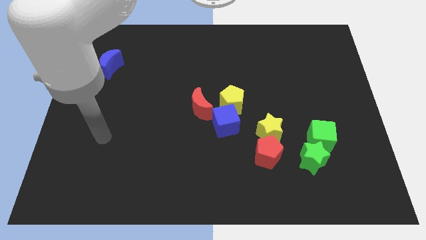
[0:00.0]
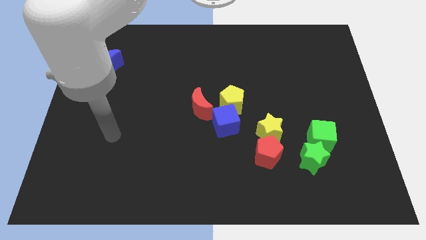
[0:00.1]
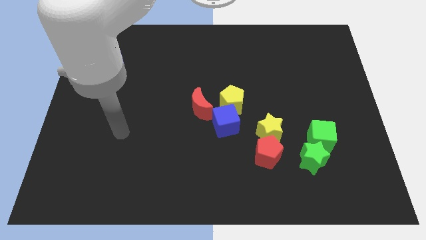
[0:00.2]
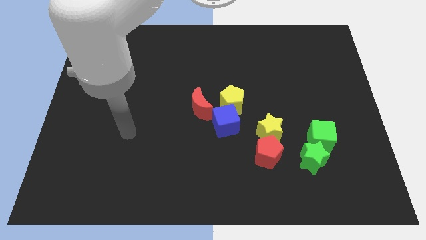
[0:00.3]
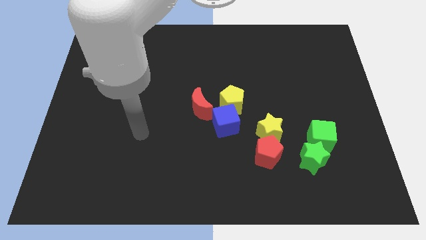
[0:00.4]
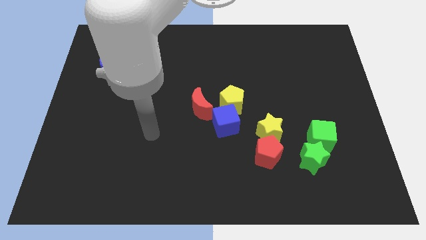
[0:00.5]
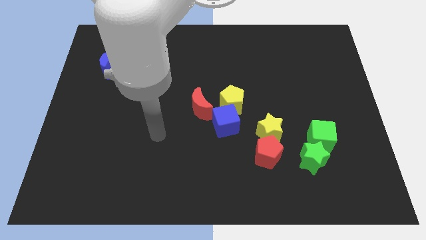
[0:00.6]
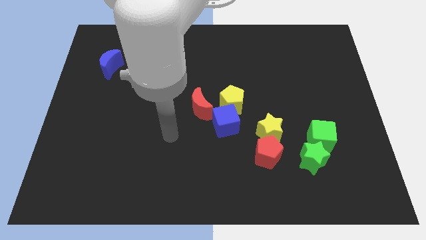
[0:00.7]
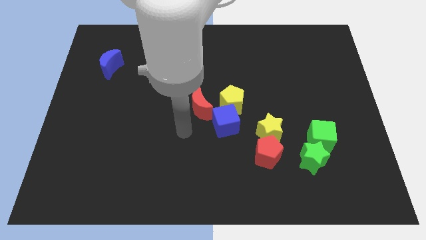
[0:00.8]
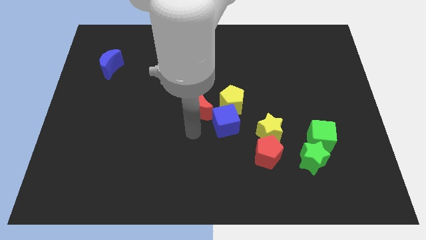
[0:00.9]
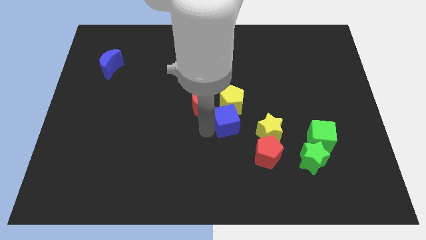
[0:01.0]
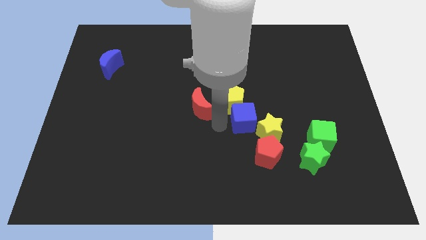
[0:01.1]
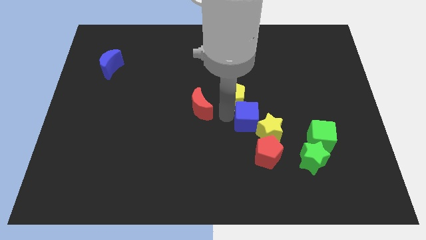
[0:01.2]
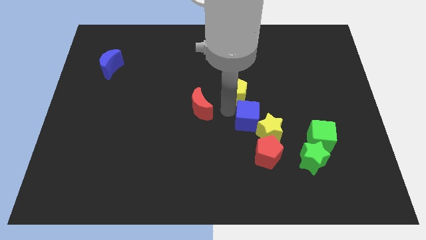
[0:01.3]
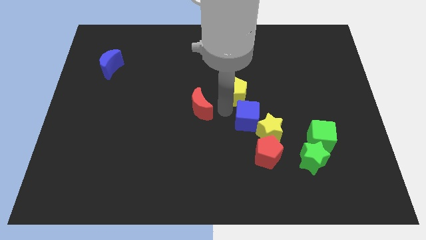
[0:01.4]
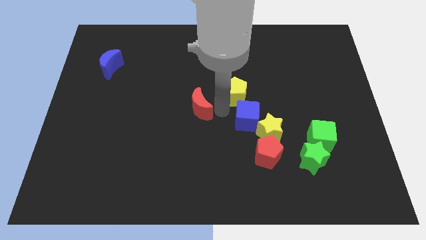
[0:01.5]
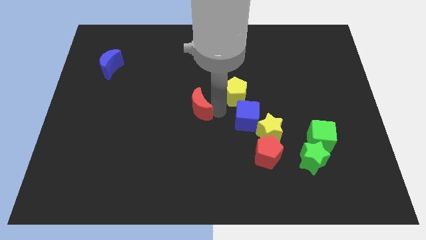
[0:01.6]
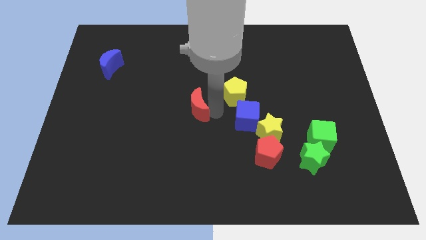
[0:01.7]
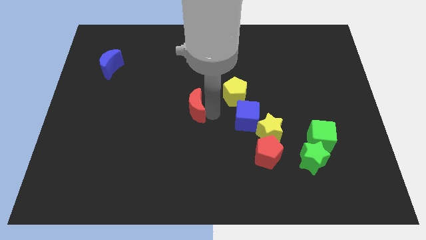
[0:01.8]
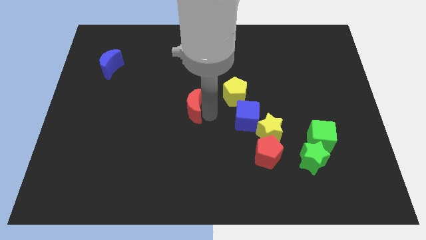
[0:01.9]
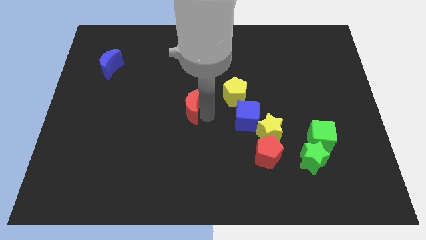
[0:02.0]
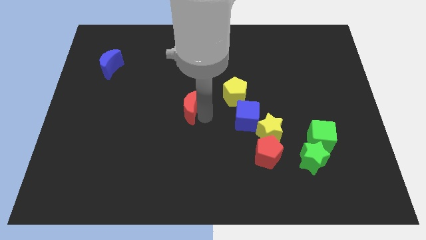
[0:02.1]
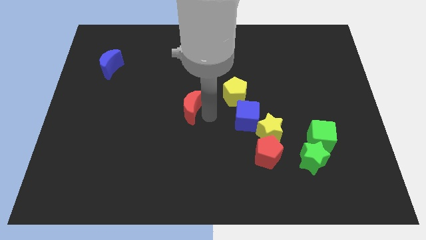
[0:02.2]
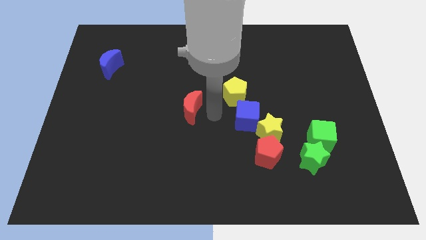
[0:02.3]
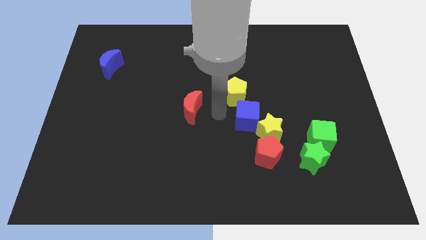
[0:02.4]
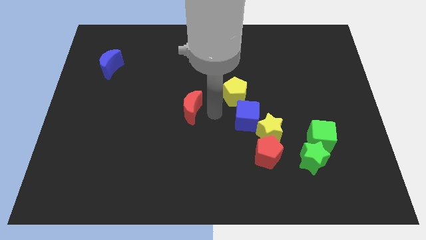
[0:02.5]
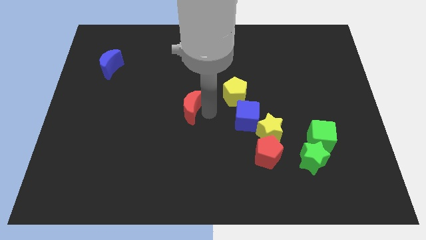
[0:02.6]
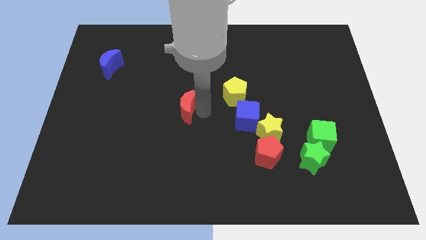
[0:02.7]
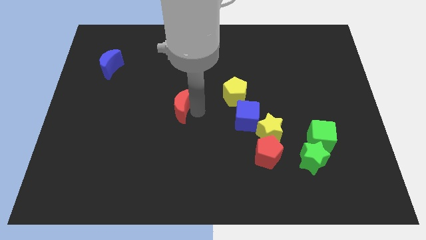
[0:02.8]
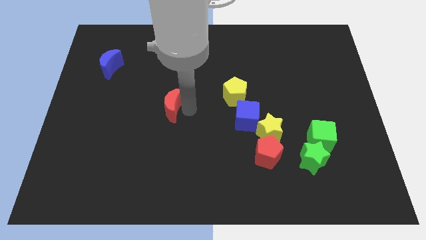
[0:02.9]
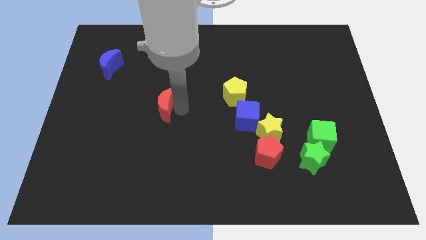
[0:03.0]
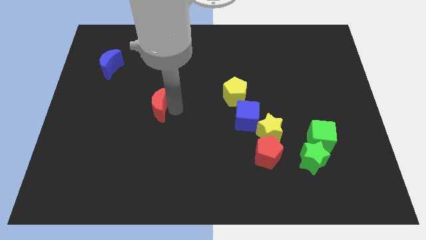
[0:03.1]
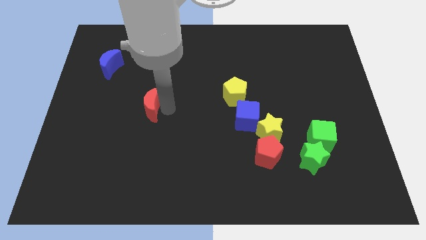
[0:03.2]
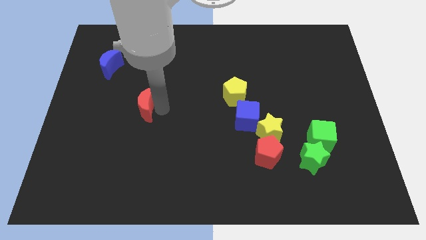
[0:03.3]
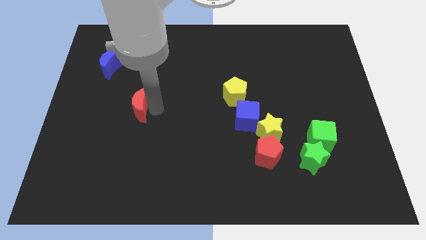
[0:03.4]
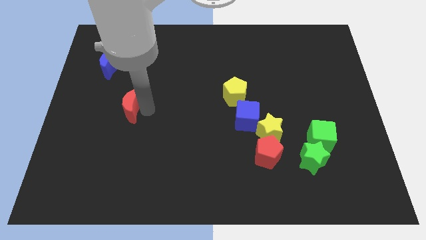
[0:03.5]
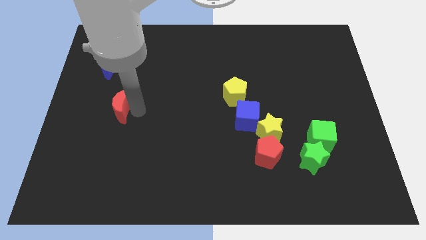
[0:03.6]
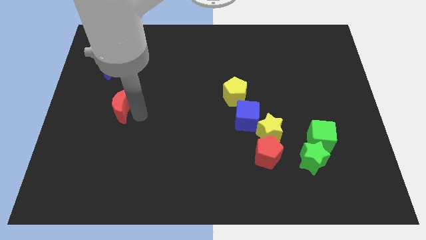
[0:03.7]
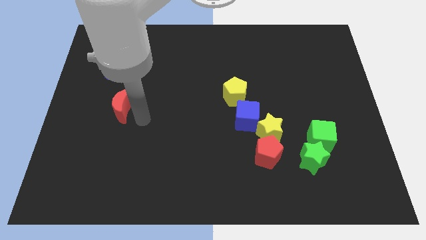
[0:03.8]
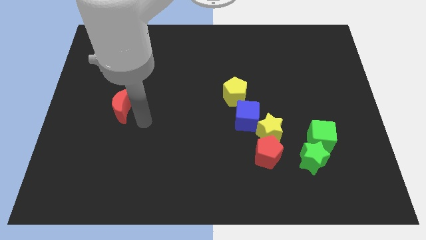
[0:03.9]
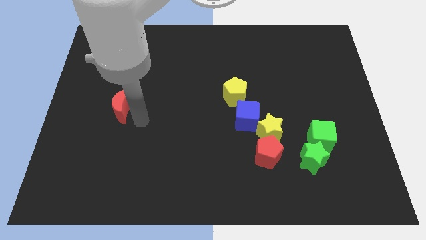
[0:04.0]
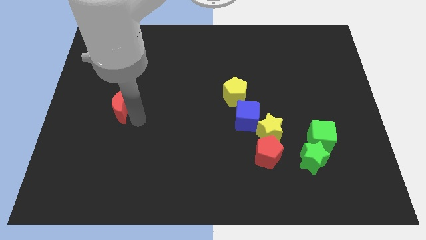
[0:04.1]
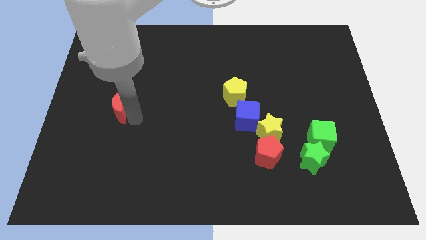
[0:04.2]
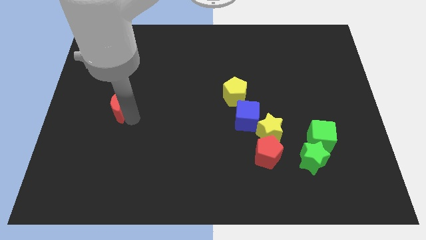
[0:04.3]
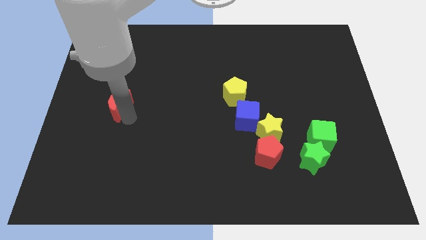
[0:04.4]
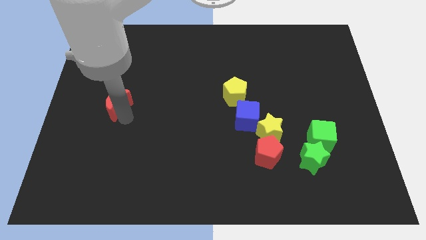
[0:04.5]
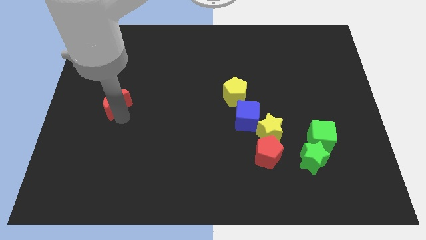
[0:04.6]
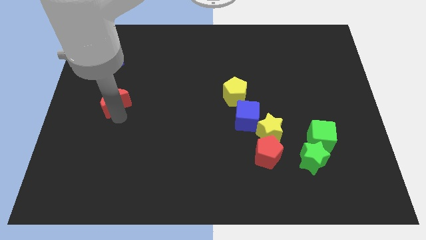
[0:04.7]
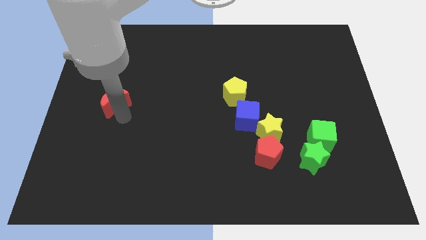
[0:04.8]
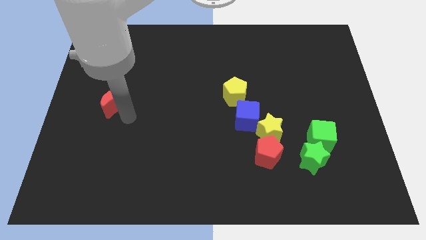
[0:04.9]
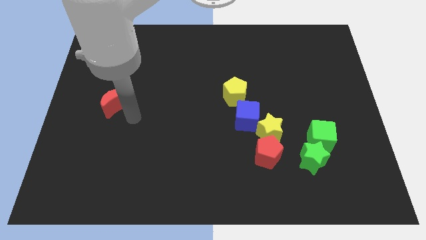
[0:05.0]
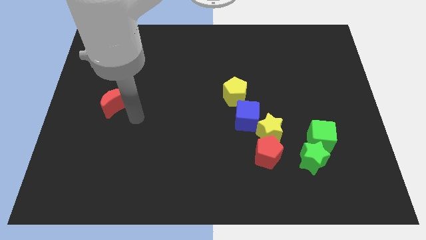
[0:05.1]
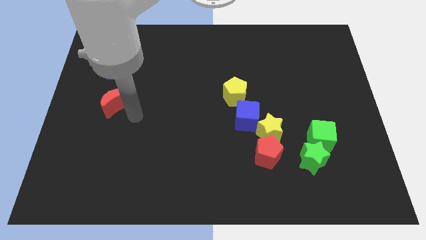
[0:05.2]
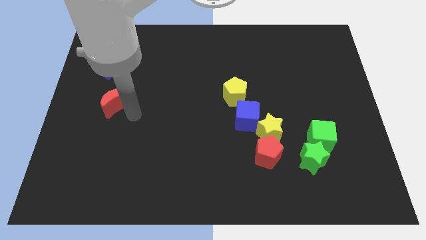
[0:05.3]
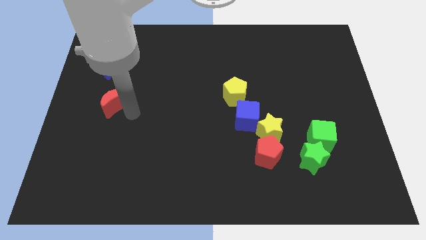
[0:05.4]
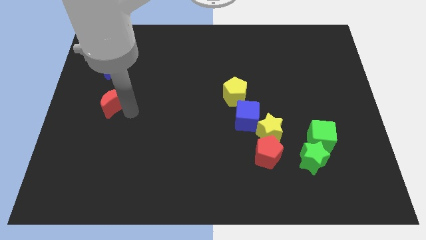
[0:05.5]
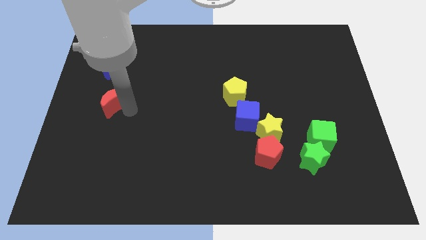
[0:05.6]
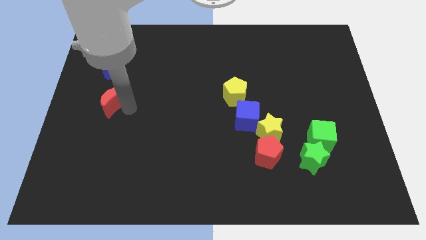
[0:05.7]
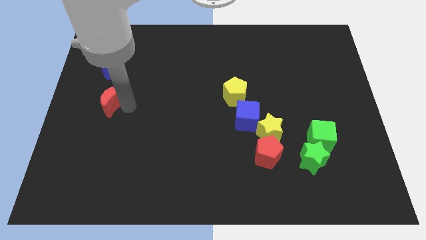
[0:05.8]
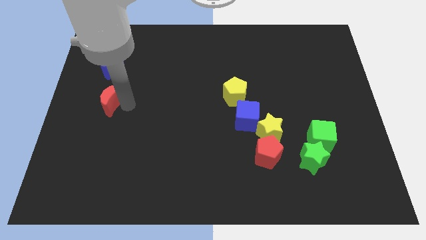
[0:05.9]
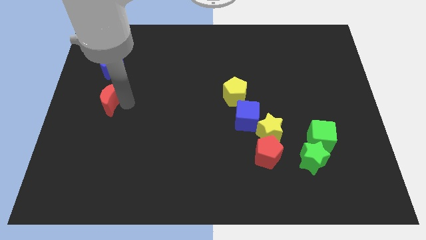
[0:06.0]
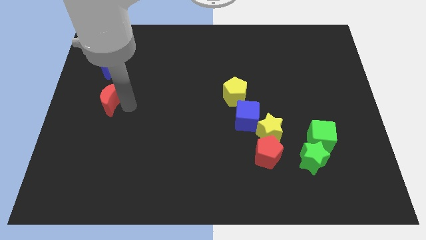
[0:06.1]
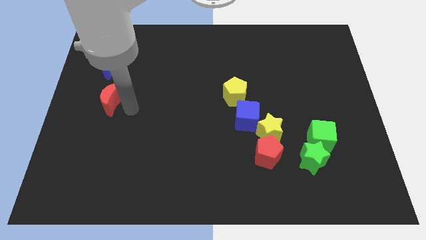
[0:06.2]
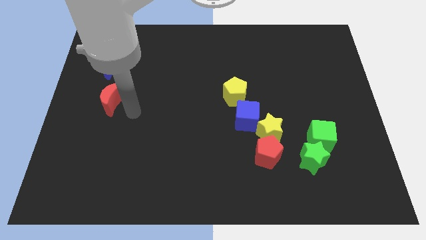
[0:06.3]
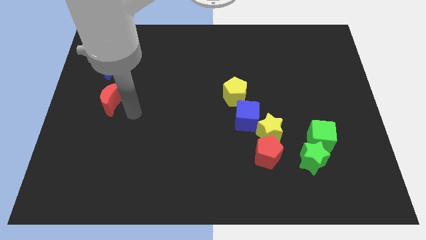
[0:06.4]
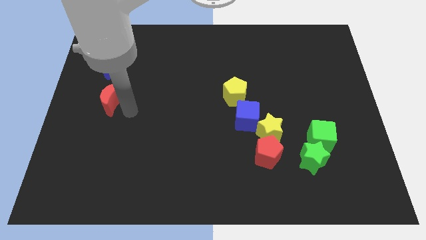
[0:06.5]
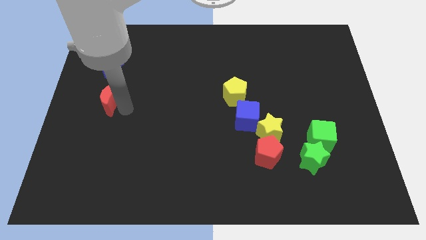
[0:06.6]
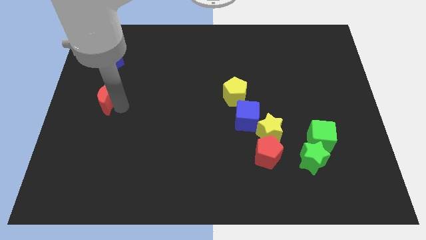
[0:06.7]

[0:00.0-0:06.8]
move the red moon to the left side
